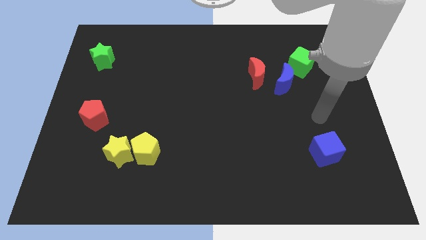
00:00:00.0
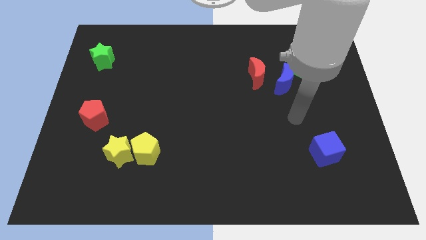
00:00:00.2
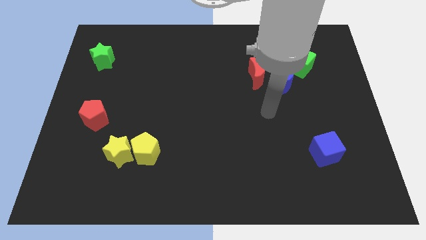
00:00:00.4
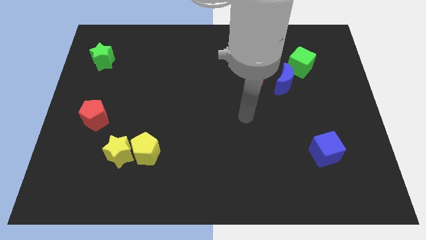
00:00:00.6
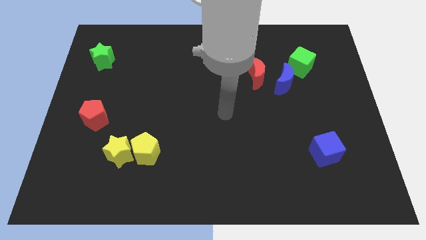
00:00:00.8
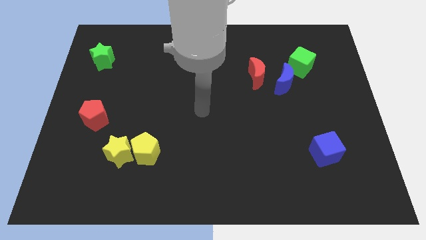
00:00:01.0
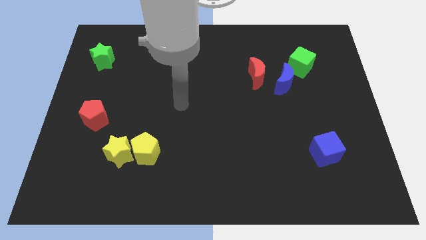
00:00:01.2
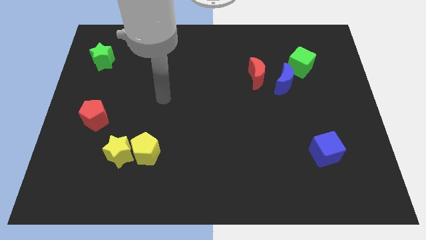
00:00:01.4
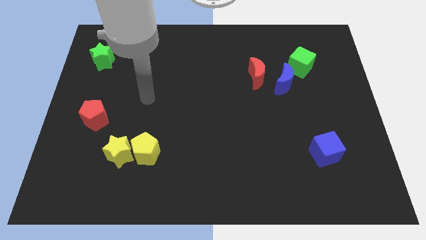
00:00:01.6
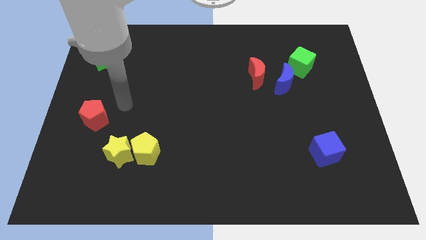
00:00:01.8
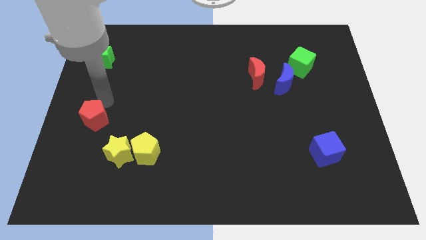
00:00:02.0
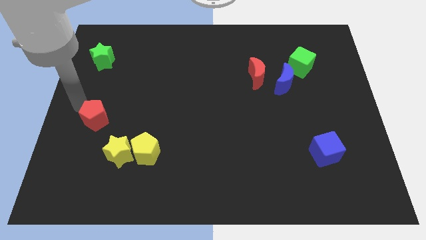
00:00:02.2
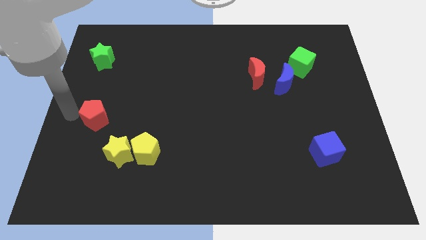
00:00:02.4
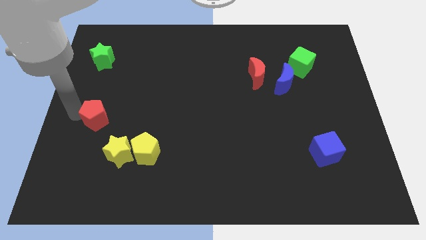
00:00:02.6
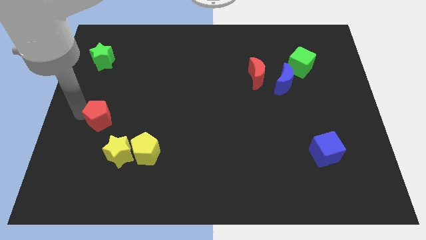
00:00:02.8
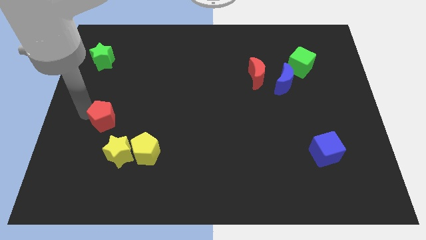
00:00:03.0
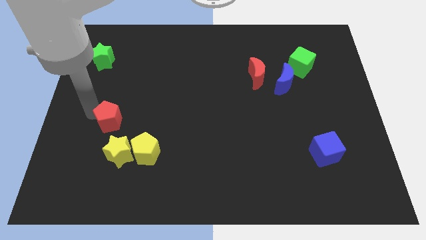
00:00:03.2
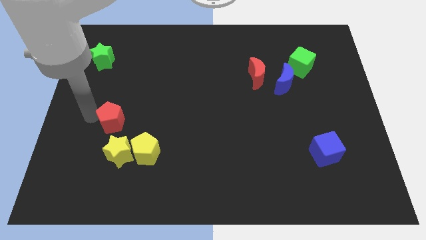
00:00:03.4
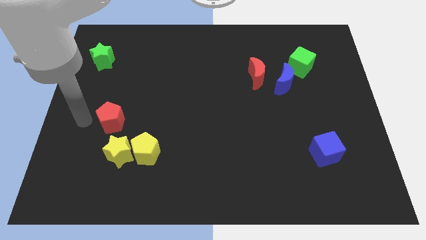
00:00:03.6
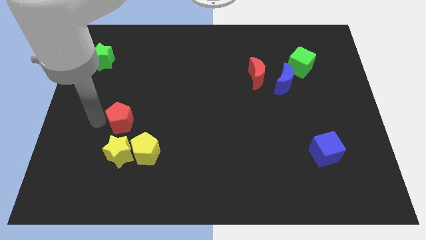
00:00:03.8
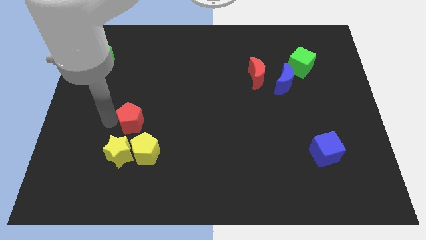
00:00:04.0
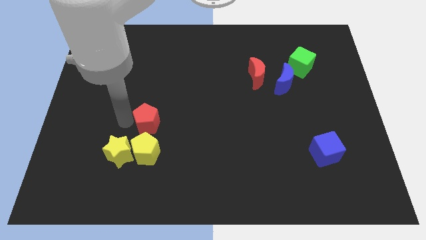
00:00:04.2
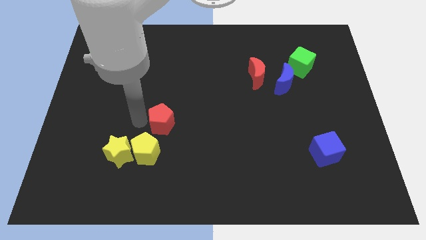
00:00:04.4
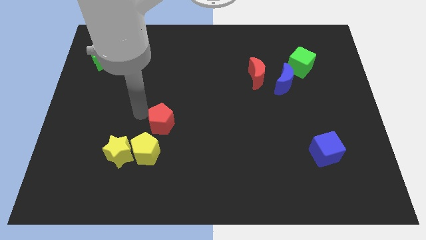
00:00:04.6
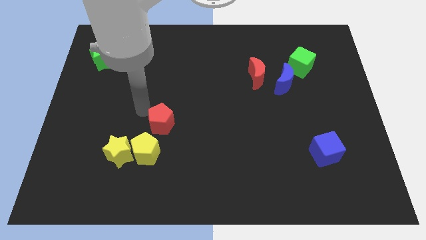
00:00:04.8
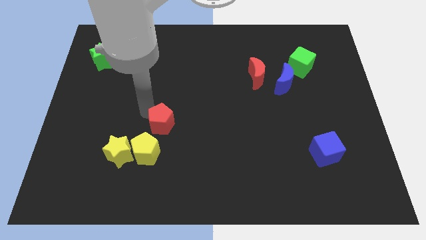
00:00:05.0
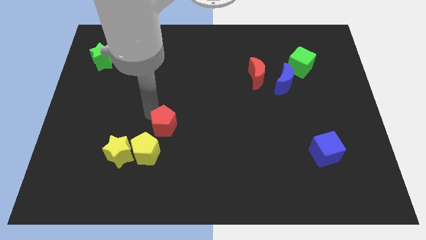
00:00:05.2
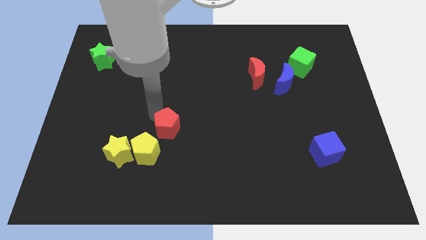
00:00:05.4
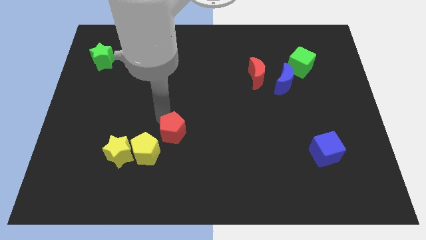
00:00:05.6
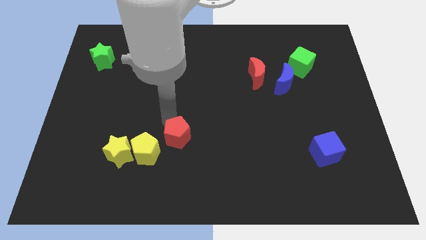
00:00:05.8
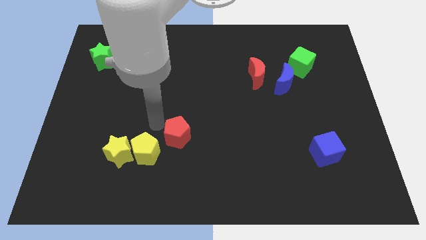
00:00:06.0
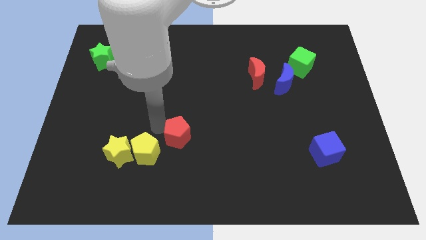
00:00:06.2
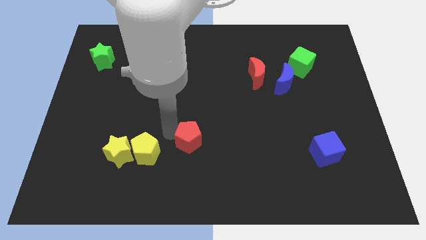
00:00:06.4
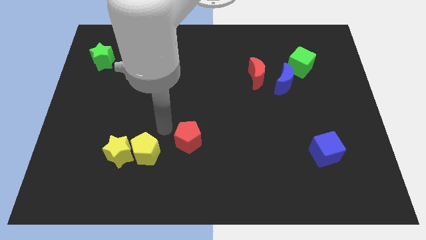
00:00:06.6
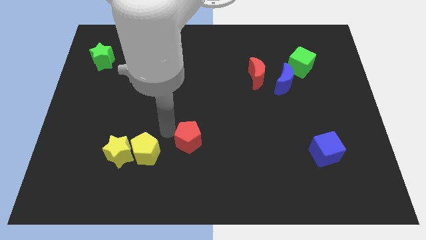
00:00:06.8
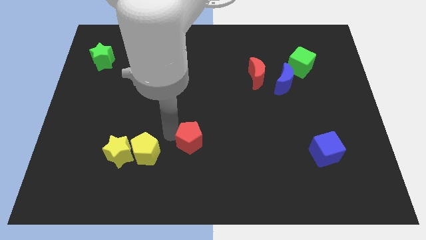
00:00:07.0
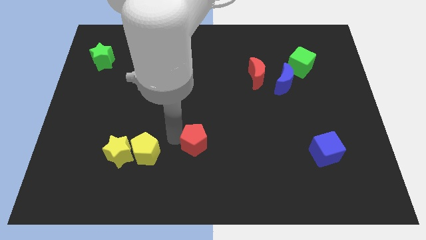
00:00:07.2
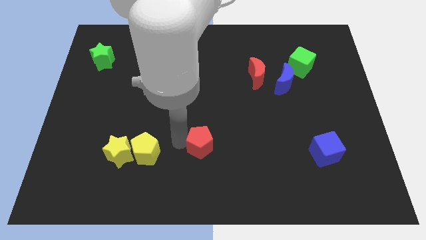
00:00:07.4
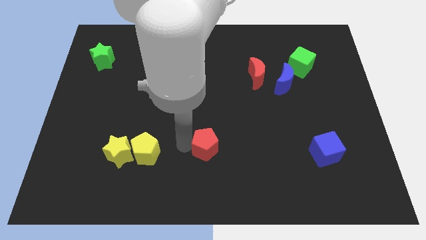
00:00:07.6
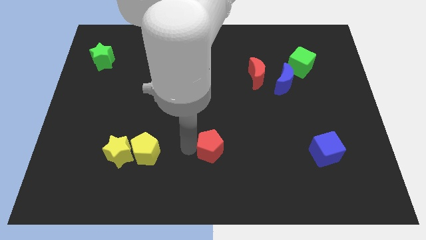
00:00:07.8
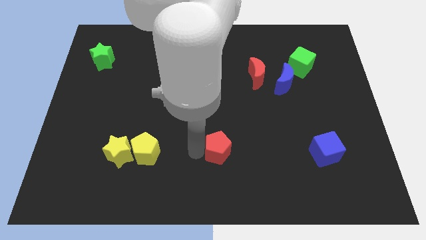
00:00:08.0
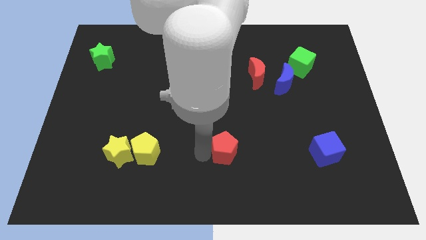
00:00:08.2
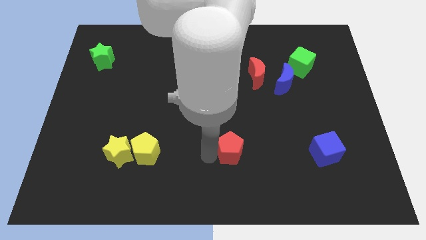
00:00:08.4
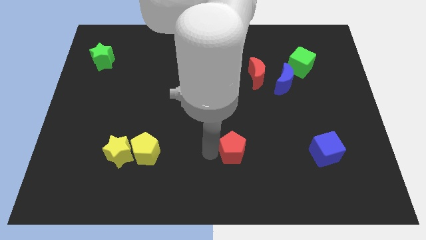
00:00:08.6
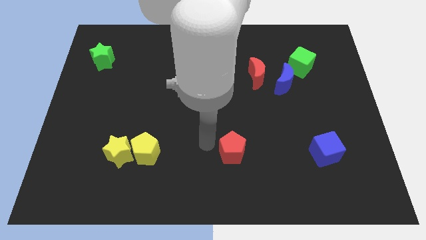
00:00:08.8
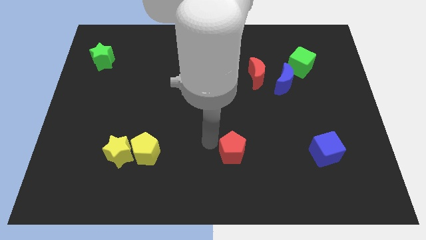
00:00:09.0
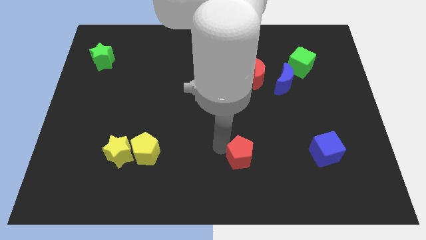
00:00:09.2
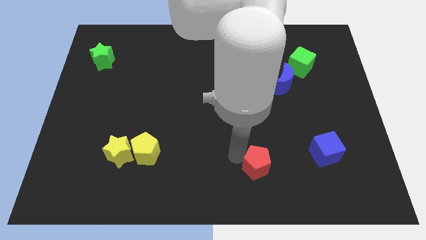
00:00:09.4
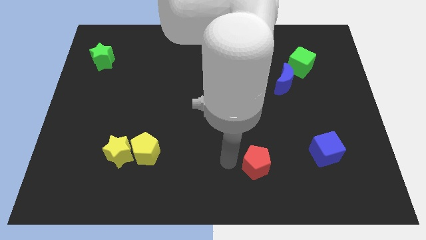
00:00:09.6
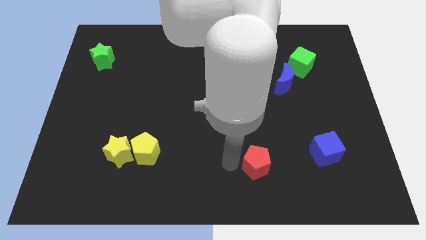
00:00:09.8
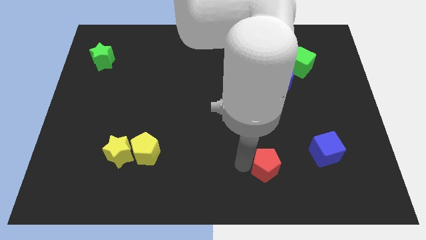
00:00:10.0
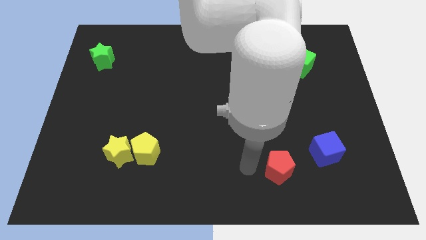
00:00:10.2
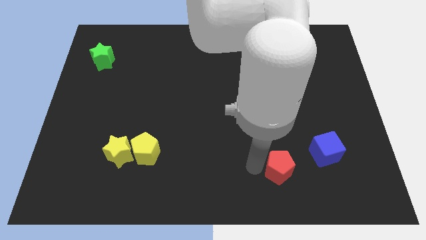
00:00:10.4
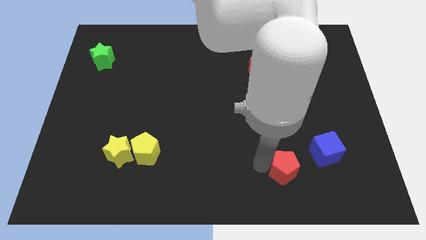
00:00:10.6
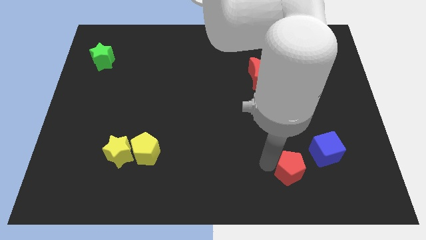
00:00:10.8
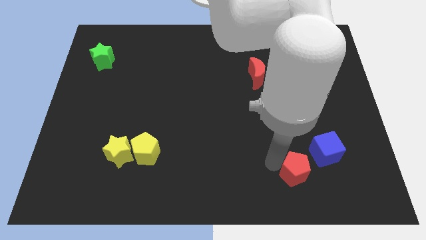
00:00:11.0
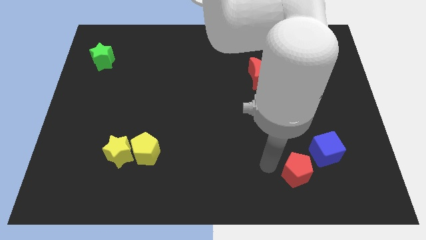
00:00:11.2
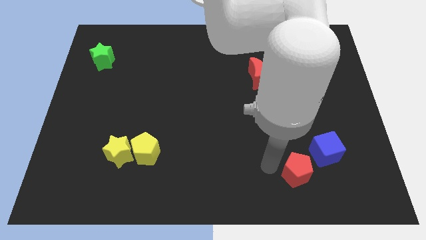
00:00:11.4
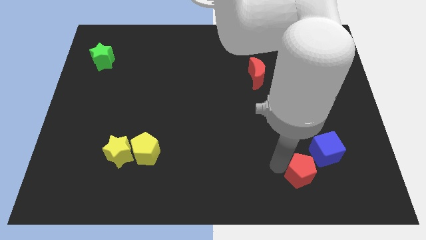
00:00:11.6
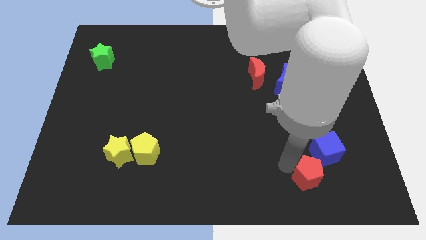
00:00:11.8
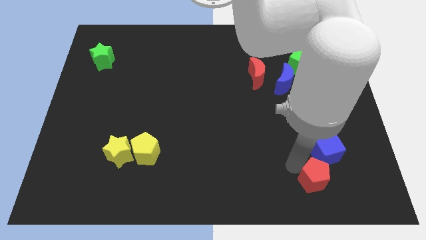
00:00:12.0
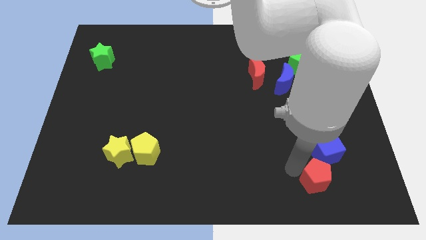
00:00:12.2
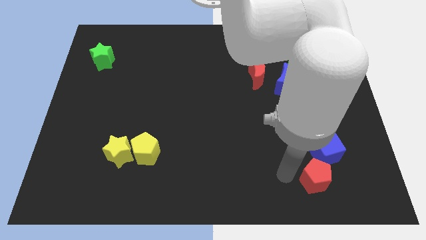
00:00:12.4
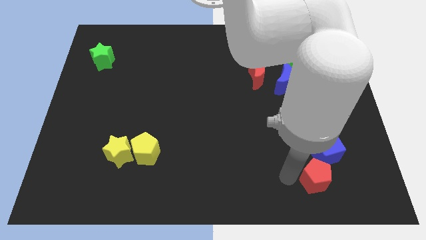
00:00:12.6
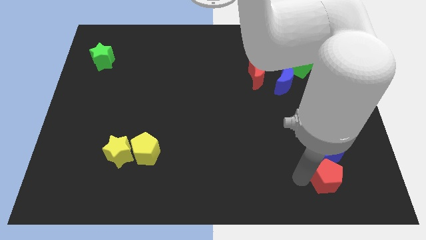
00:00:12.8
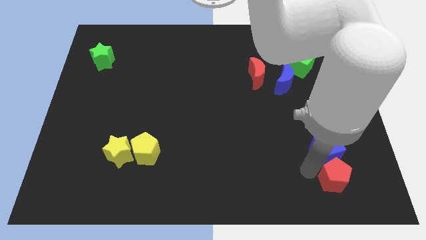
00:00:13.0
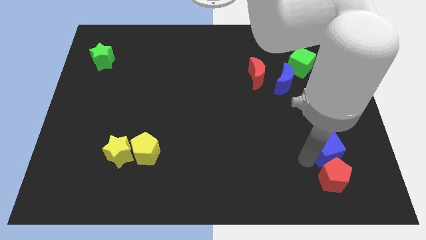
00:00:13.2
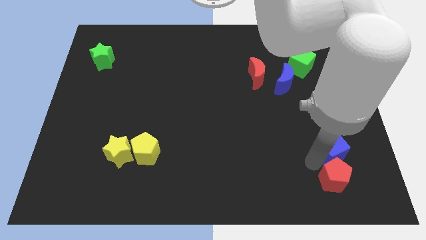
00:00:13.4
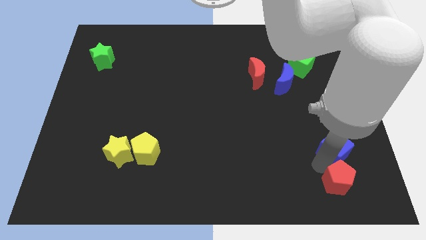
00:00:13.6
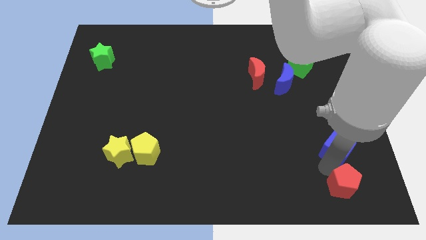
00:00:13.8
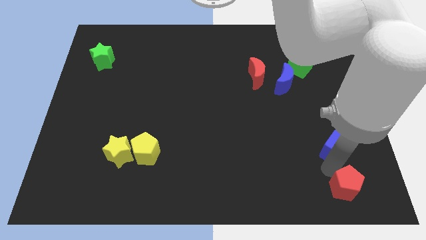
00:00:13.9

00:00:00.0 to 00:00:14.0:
slide the red pentagon to the bottom right of the board
